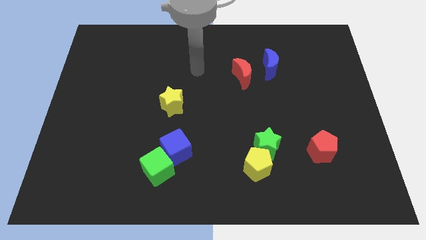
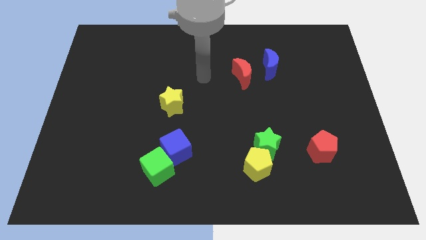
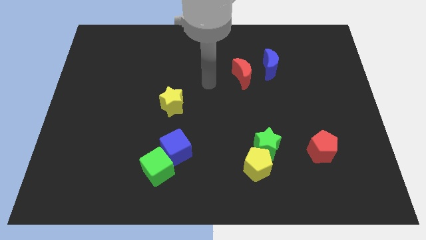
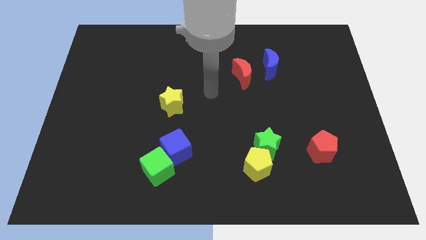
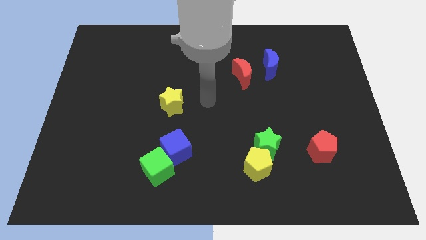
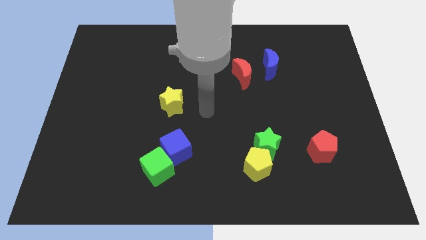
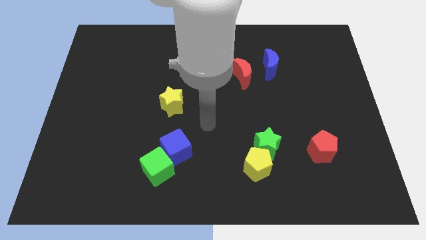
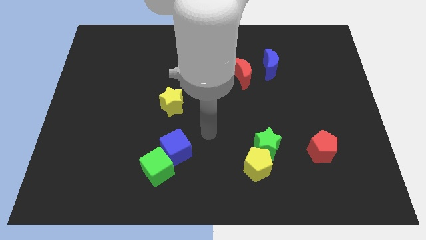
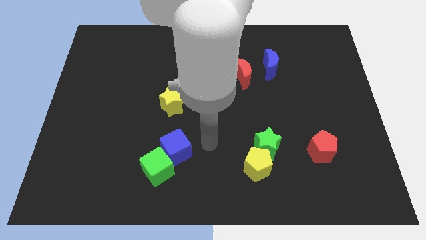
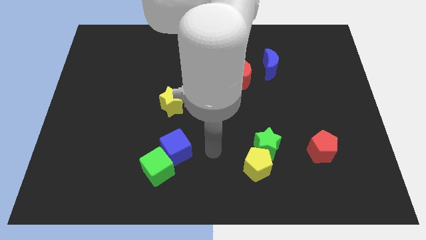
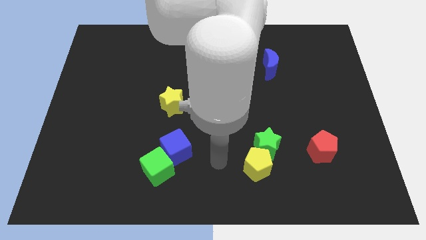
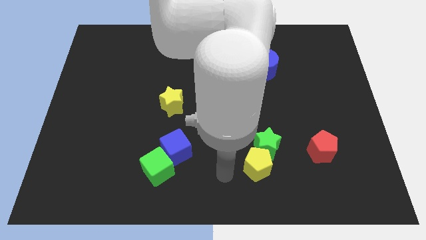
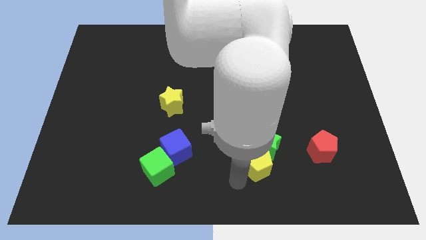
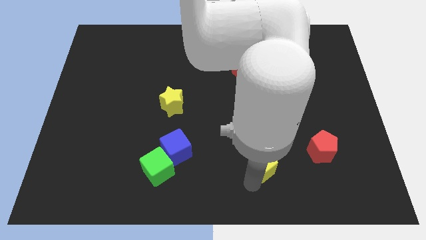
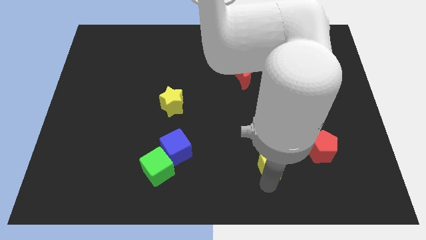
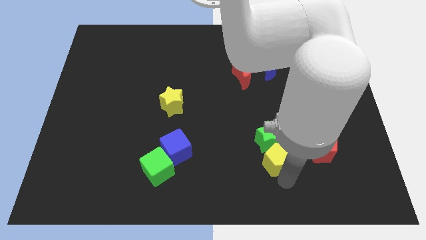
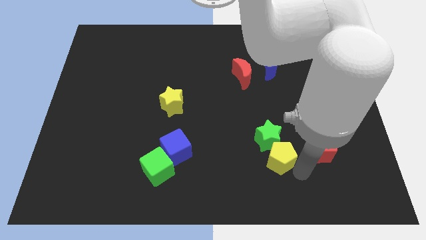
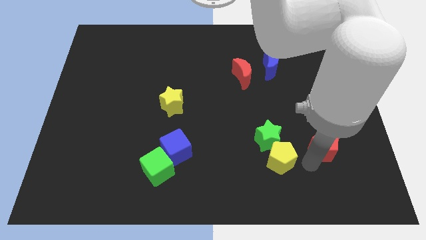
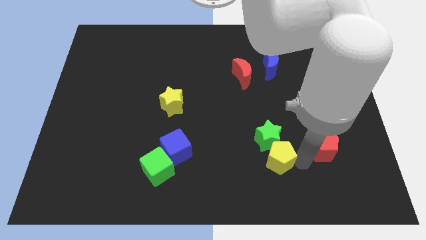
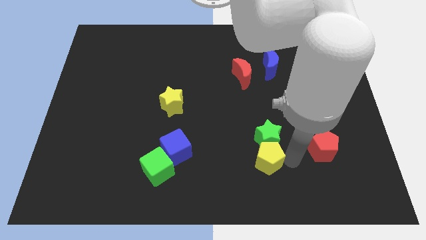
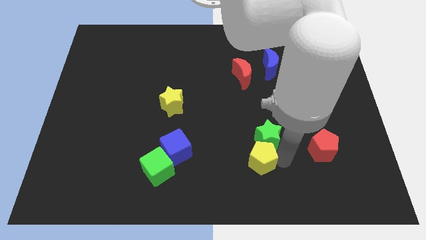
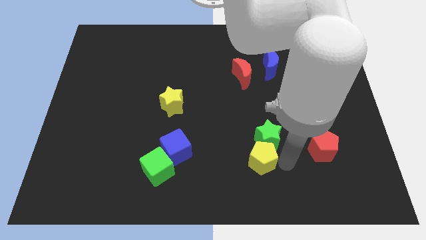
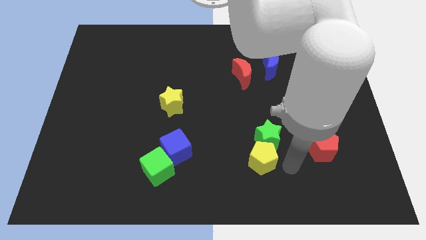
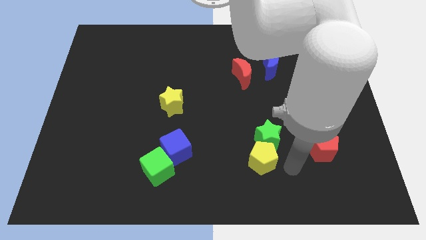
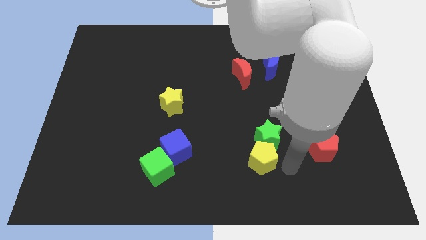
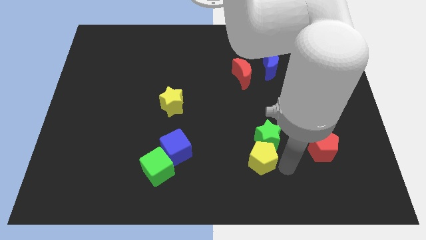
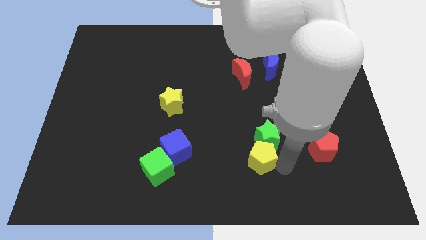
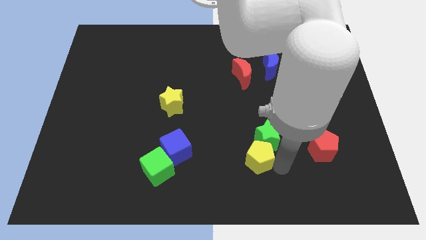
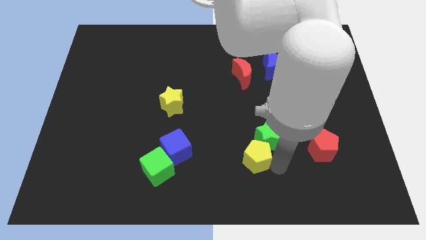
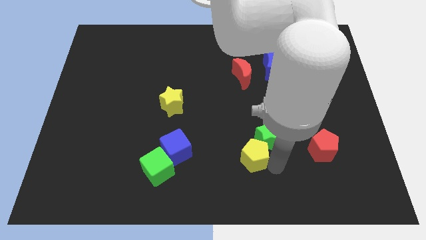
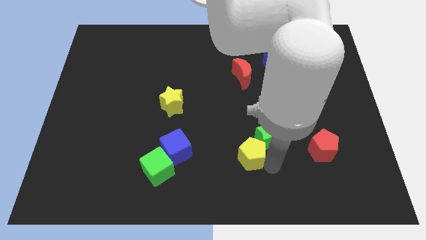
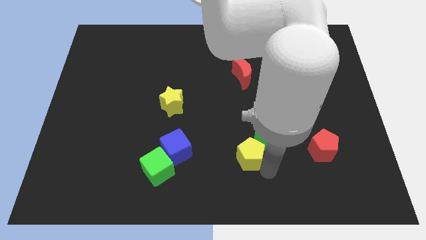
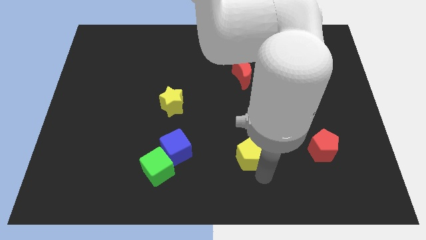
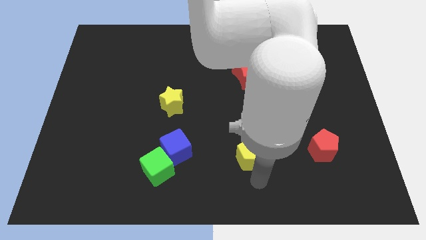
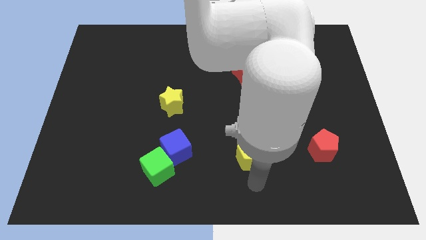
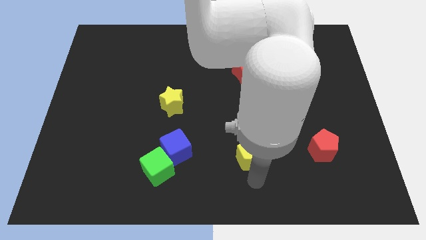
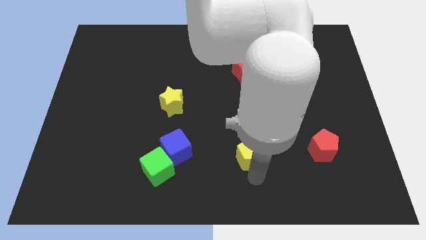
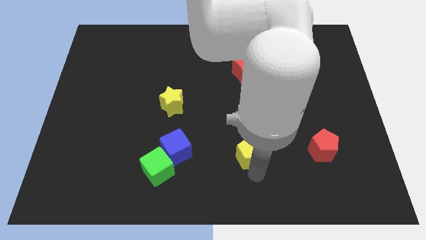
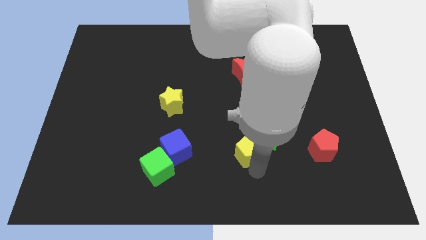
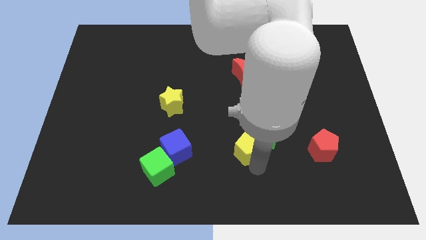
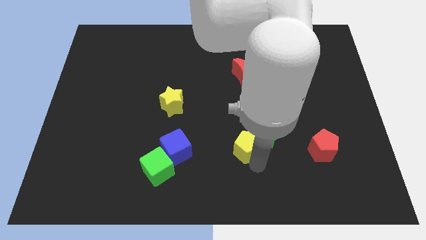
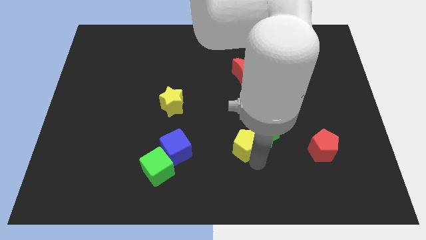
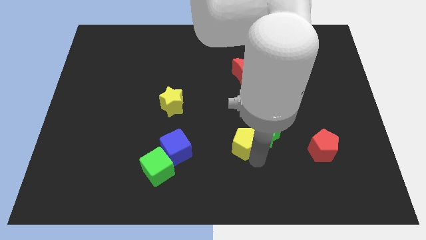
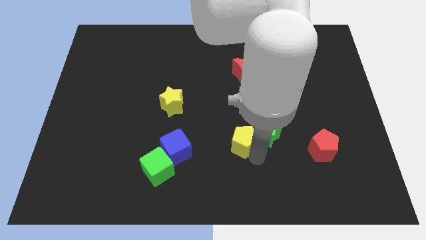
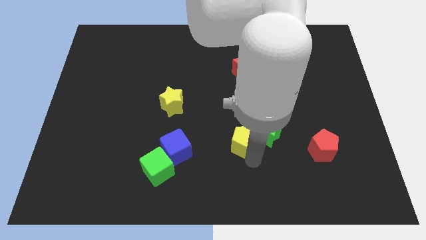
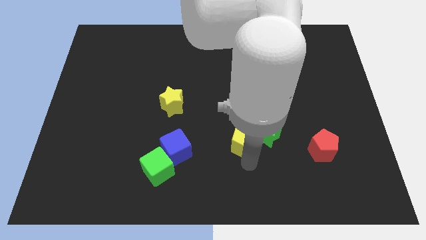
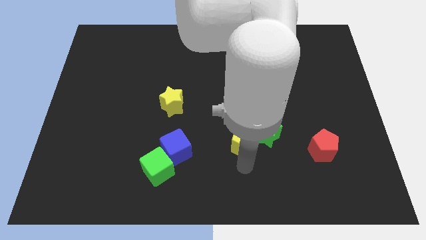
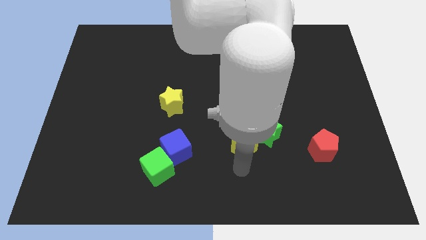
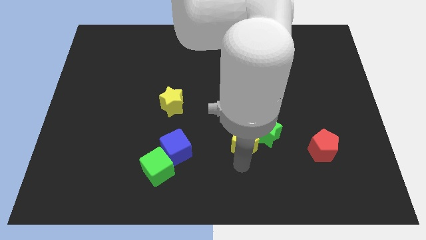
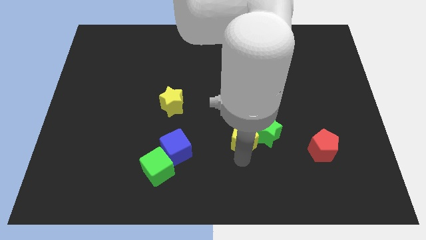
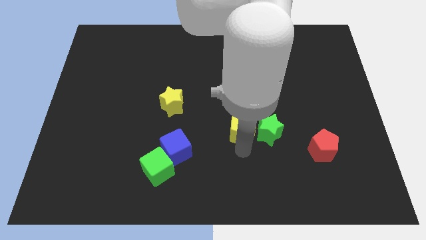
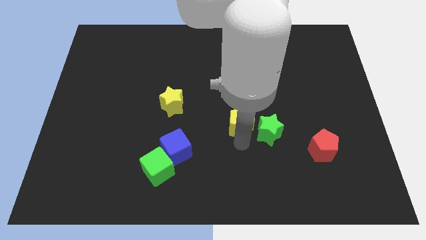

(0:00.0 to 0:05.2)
push the yellow pentagon below the red moon

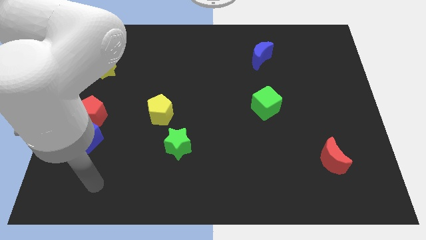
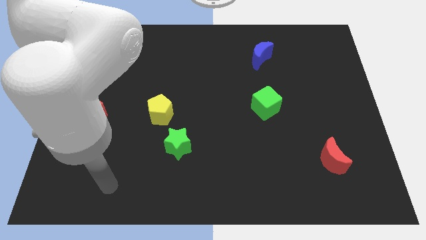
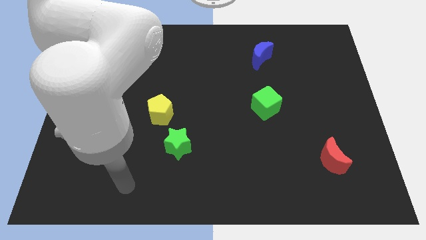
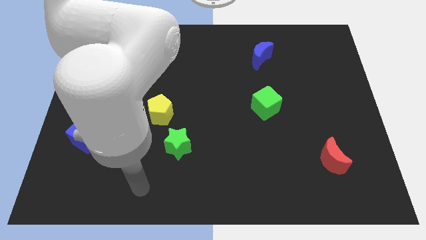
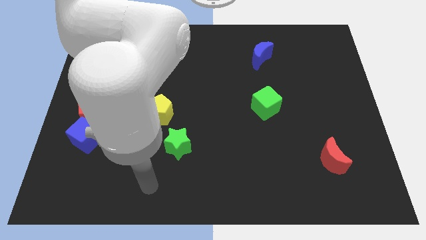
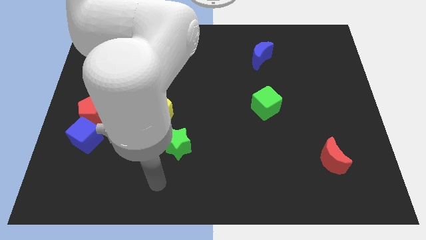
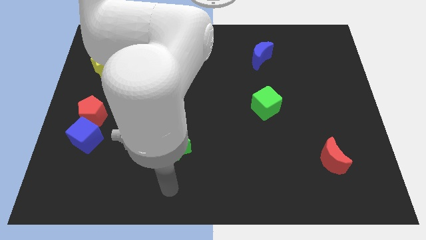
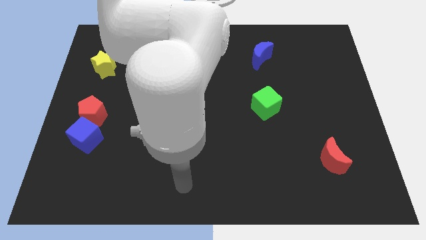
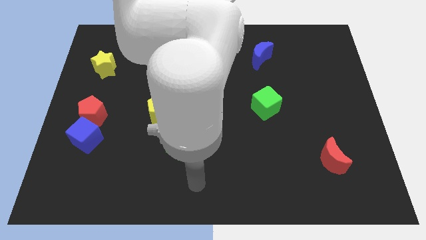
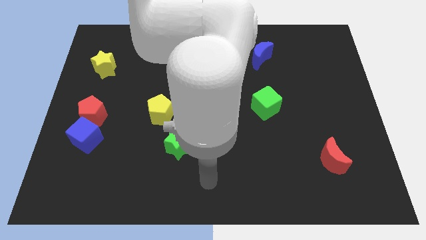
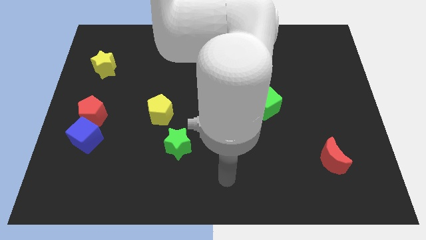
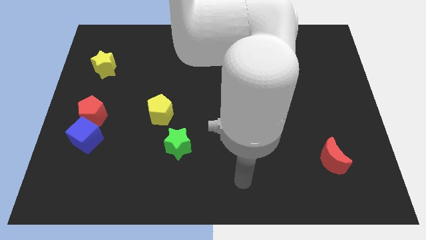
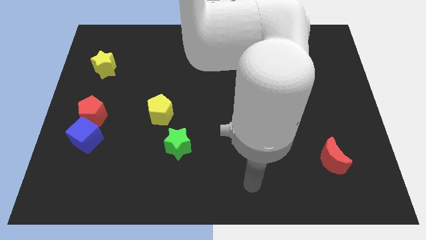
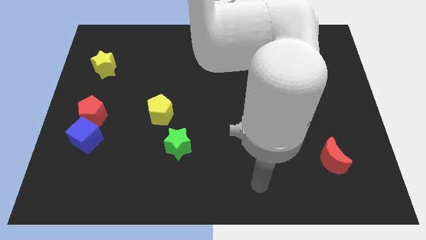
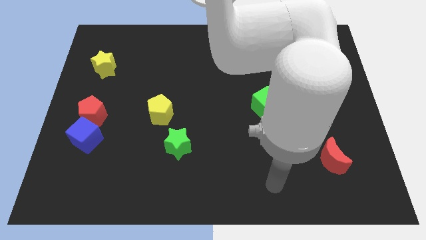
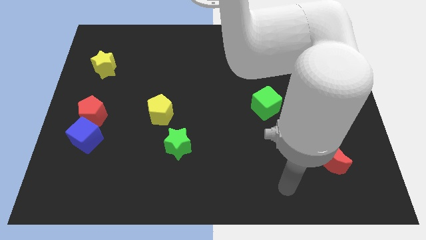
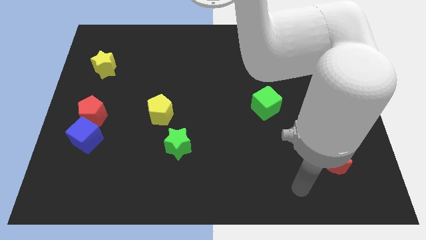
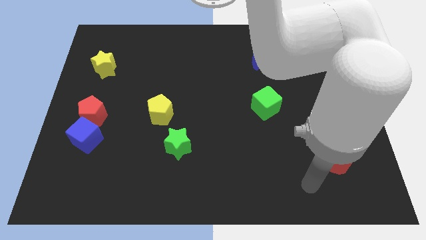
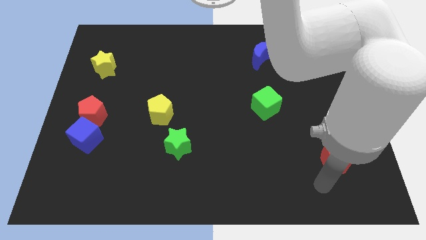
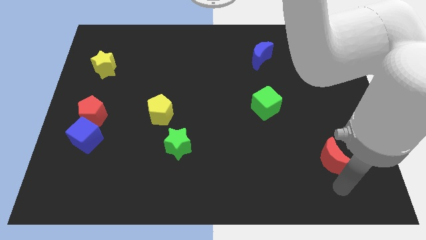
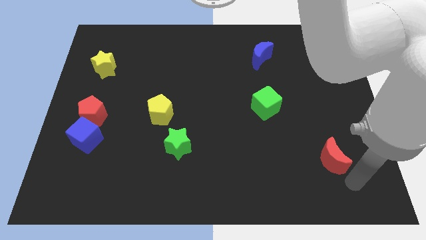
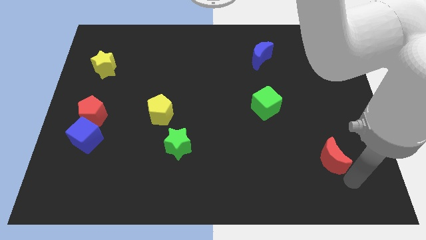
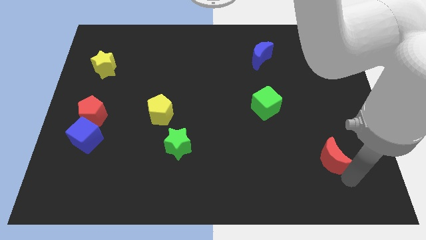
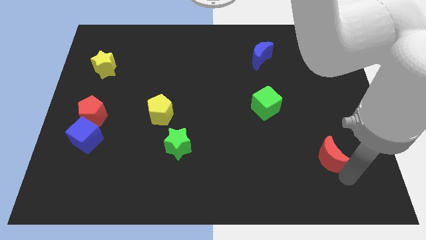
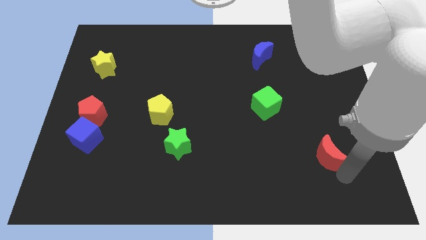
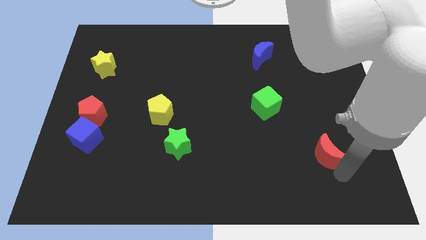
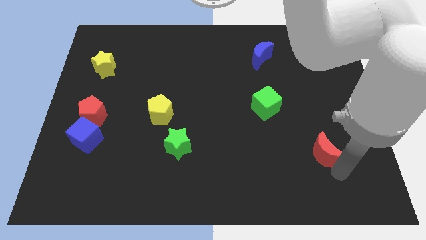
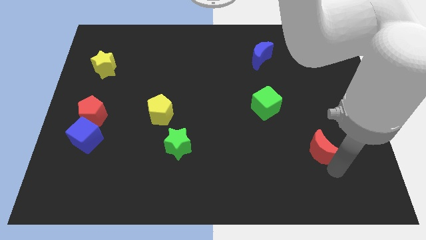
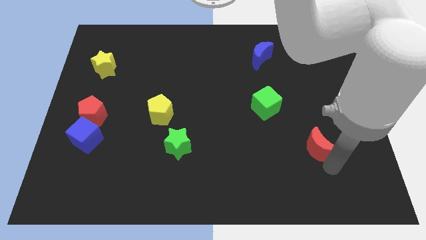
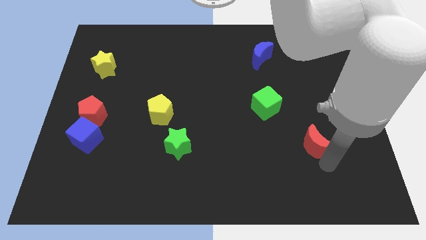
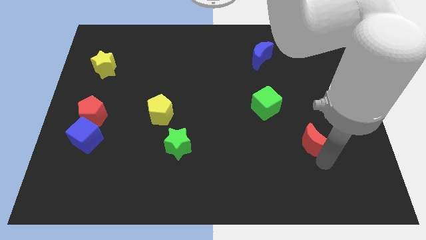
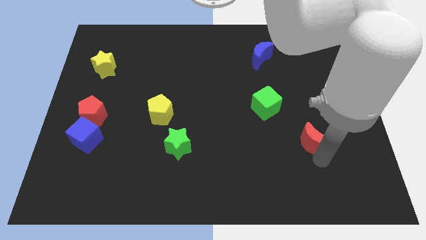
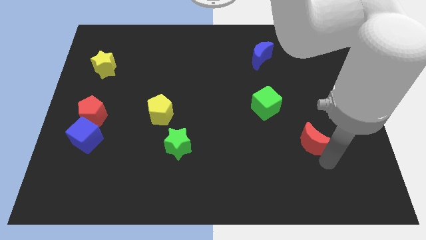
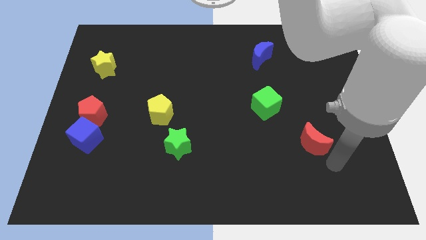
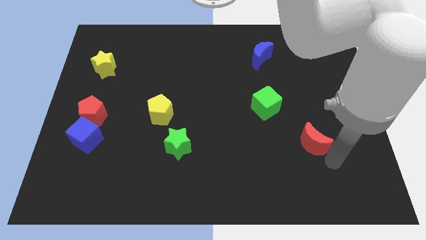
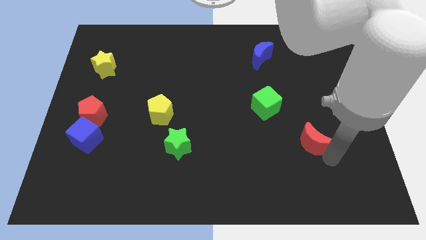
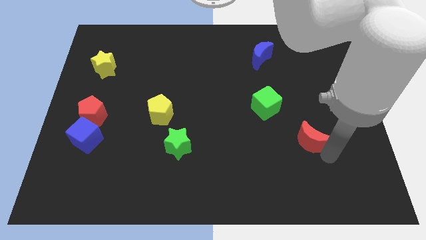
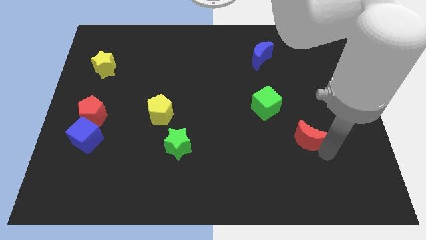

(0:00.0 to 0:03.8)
move the red moon to the bottom right of the green cube
